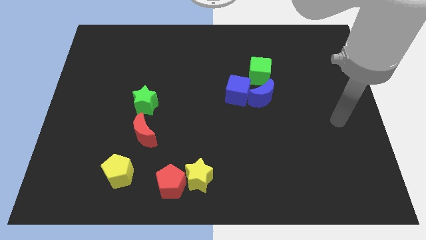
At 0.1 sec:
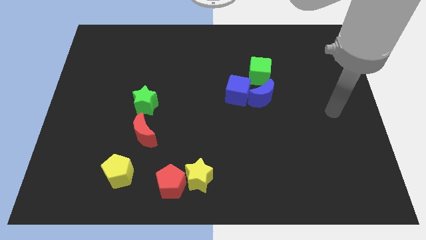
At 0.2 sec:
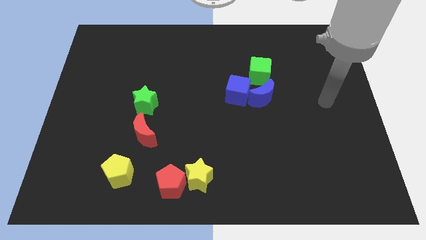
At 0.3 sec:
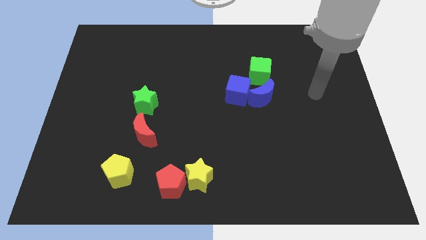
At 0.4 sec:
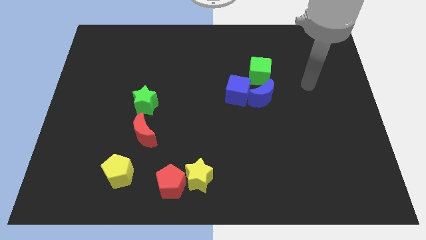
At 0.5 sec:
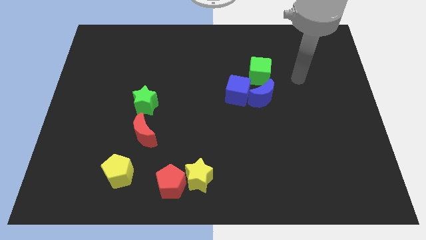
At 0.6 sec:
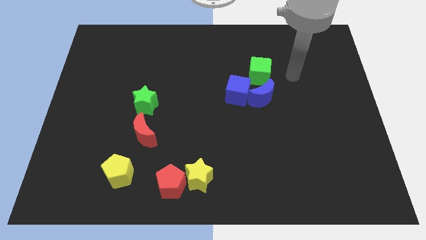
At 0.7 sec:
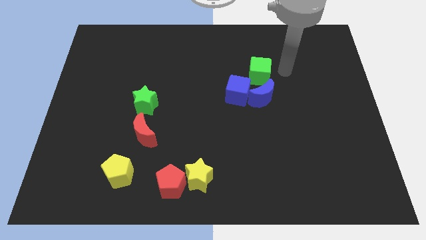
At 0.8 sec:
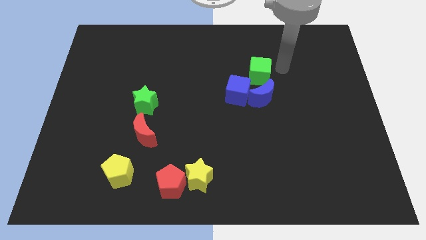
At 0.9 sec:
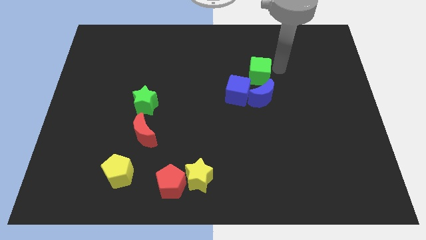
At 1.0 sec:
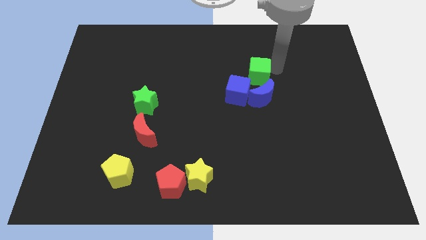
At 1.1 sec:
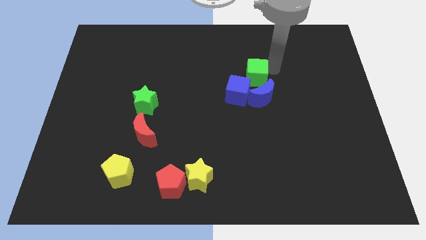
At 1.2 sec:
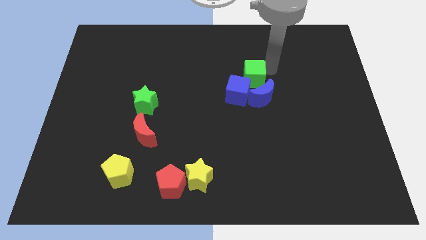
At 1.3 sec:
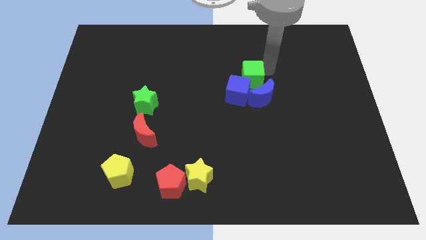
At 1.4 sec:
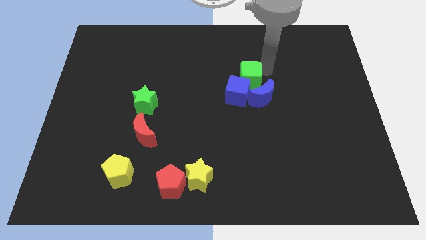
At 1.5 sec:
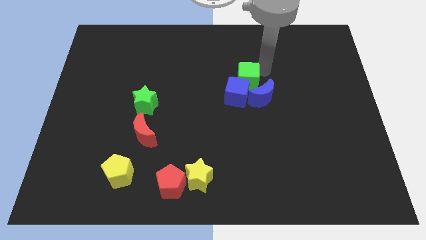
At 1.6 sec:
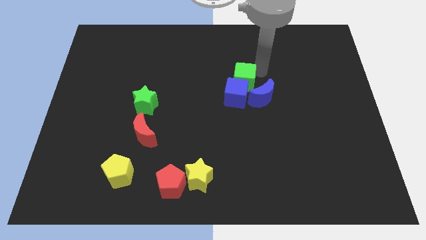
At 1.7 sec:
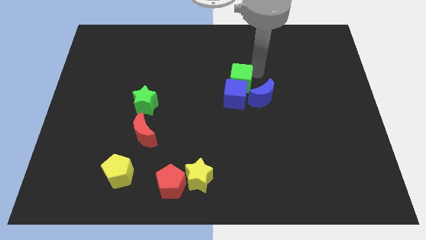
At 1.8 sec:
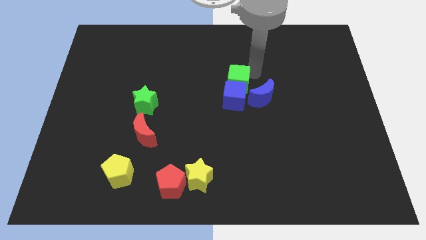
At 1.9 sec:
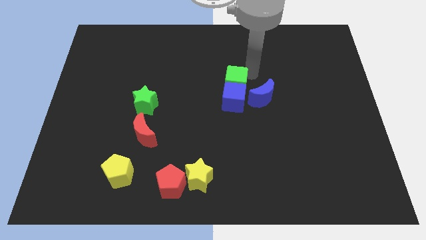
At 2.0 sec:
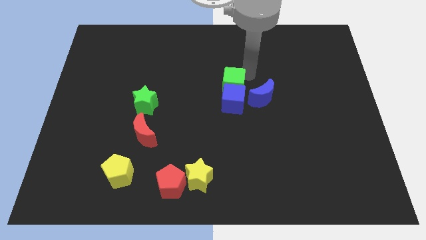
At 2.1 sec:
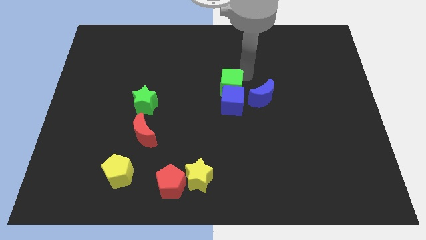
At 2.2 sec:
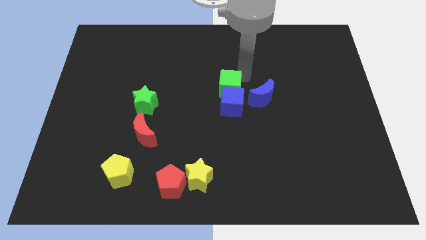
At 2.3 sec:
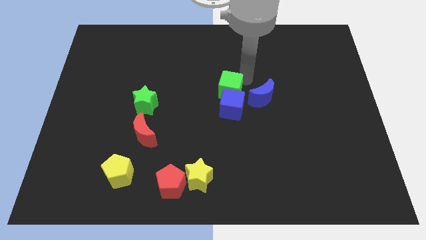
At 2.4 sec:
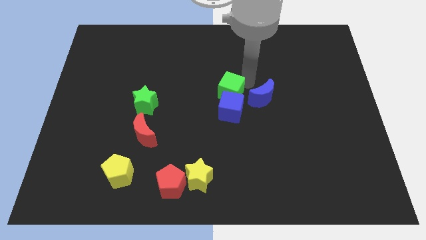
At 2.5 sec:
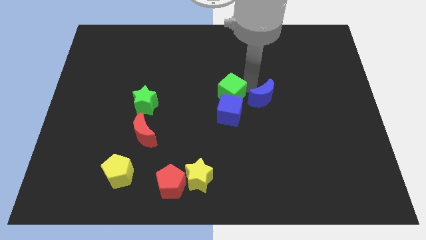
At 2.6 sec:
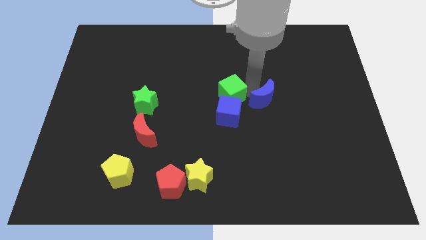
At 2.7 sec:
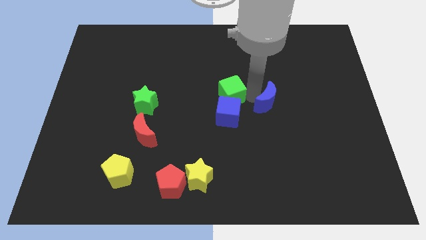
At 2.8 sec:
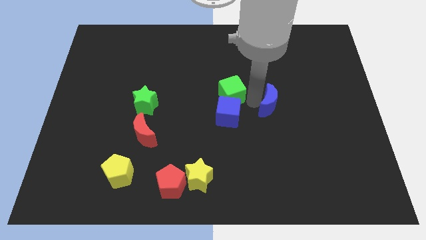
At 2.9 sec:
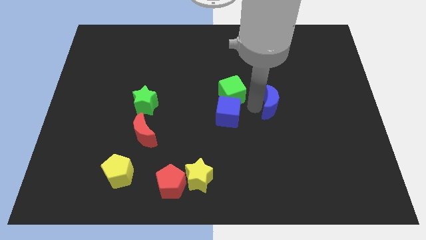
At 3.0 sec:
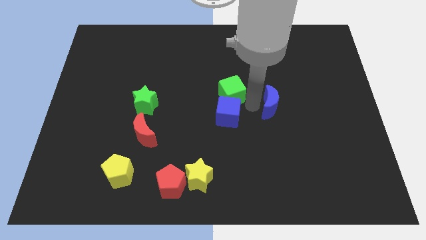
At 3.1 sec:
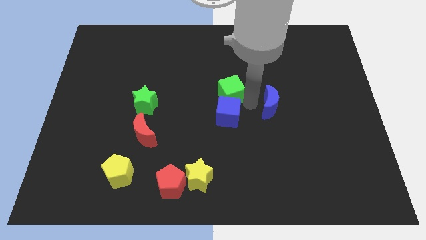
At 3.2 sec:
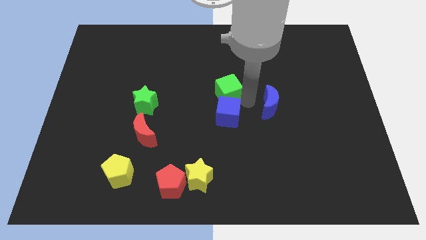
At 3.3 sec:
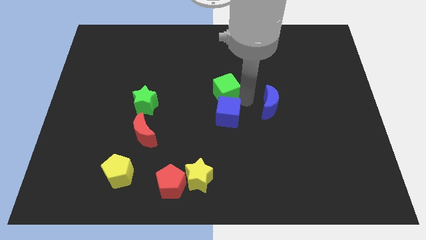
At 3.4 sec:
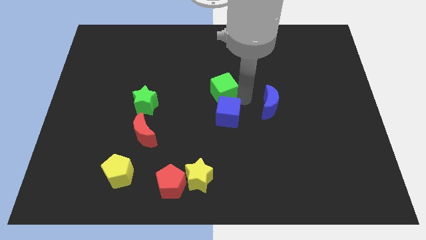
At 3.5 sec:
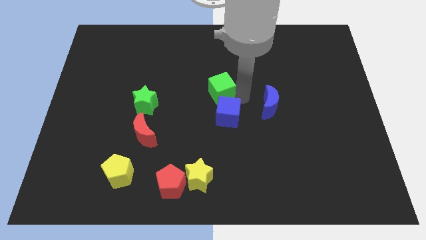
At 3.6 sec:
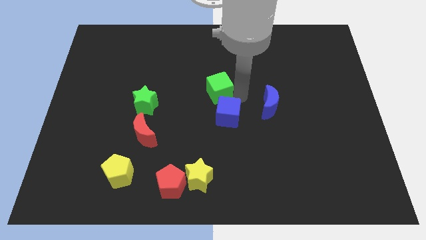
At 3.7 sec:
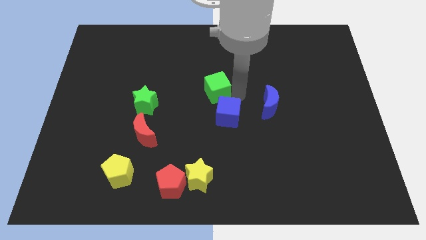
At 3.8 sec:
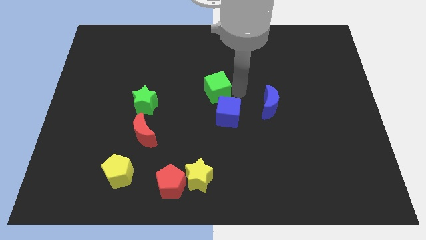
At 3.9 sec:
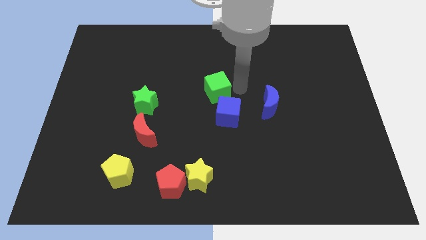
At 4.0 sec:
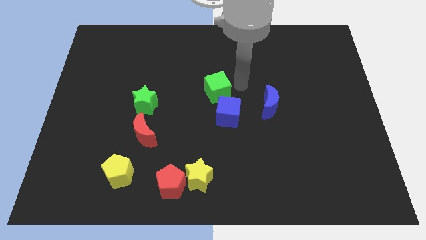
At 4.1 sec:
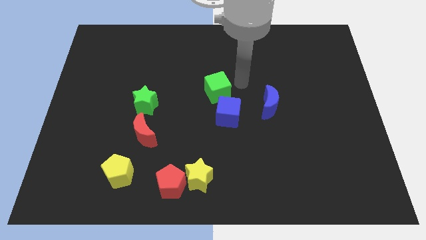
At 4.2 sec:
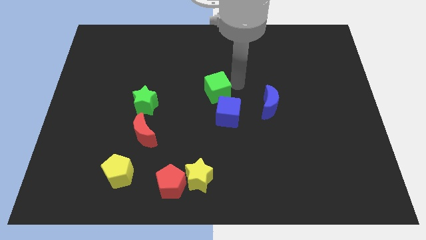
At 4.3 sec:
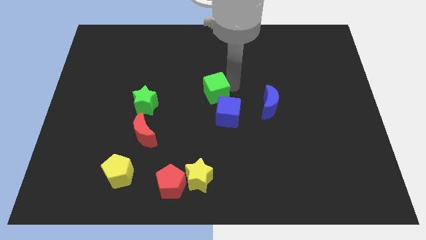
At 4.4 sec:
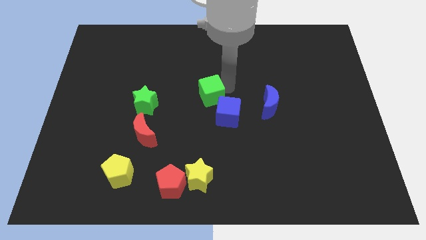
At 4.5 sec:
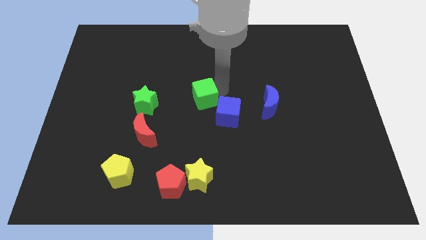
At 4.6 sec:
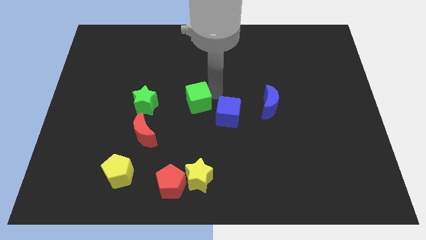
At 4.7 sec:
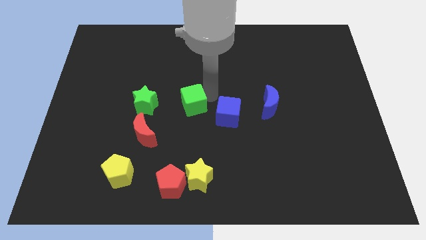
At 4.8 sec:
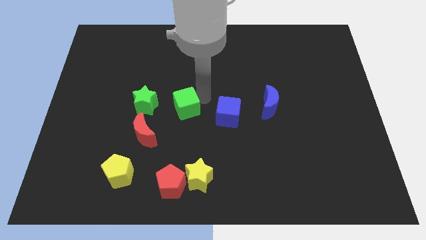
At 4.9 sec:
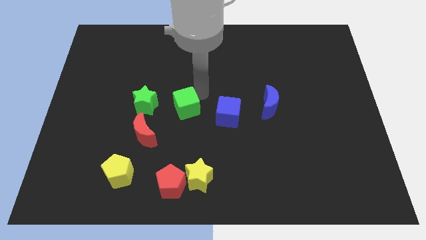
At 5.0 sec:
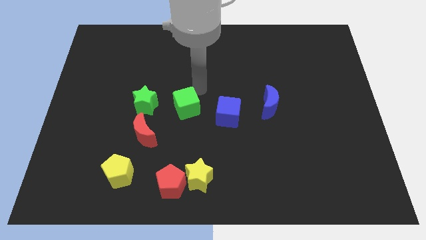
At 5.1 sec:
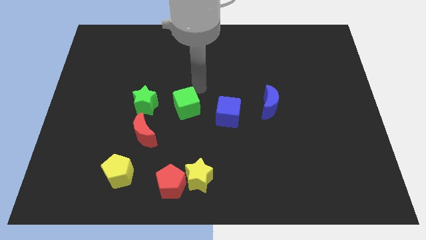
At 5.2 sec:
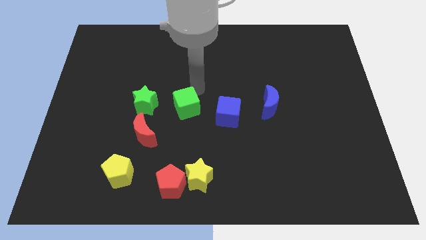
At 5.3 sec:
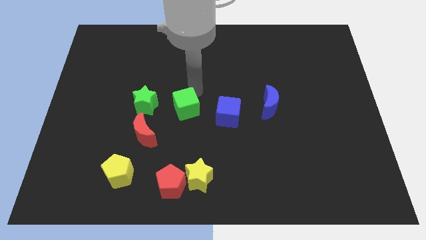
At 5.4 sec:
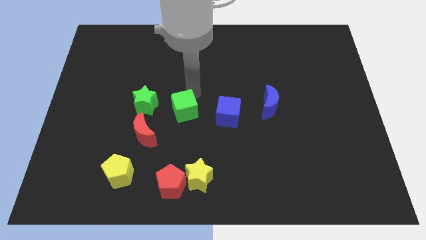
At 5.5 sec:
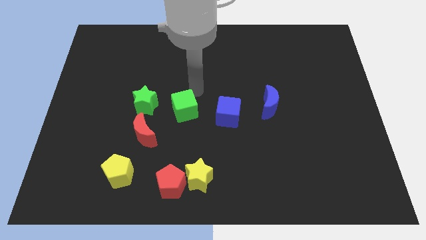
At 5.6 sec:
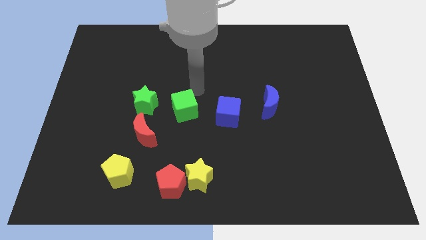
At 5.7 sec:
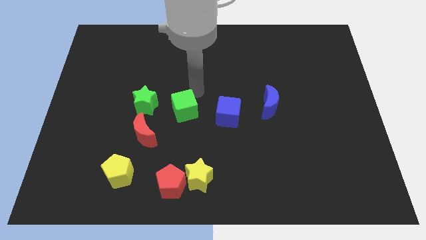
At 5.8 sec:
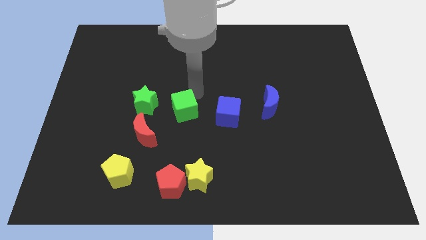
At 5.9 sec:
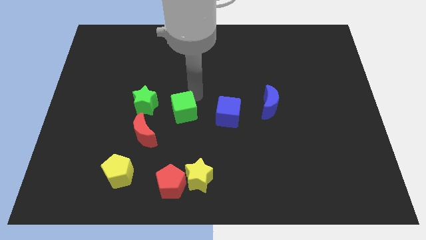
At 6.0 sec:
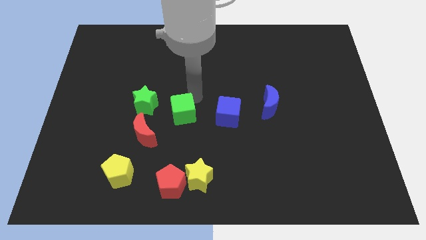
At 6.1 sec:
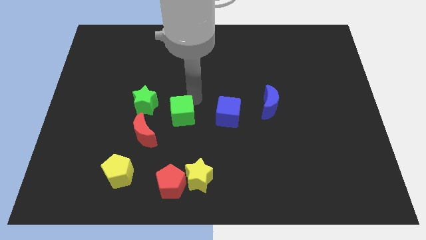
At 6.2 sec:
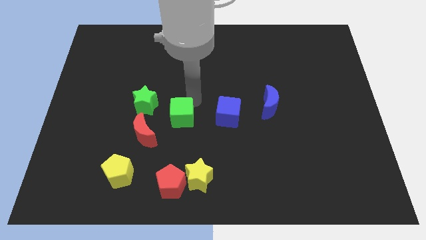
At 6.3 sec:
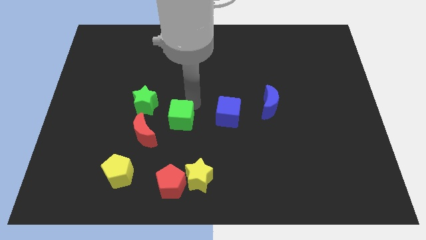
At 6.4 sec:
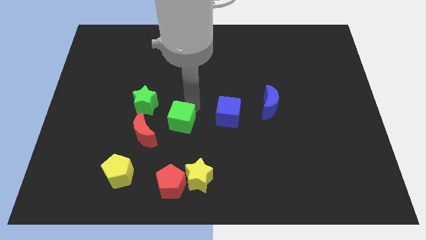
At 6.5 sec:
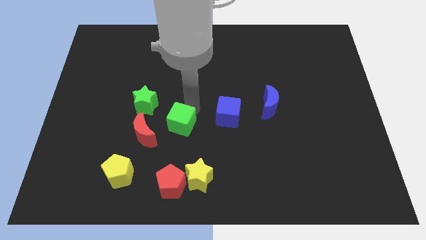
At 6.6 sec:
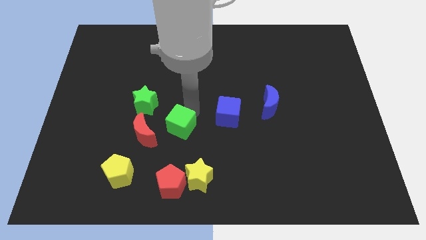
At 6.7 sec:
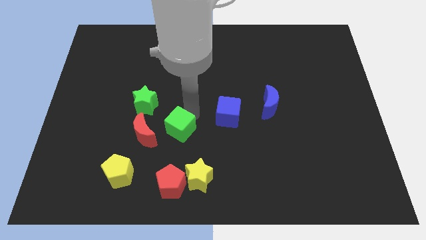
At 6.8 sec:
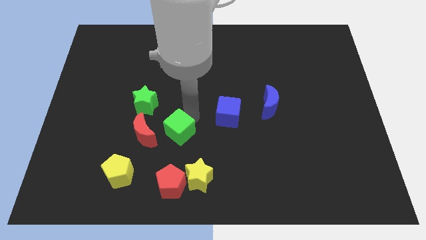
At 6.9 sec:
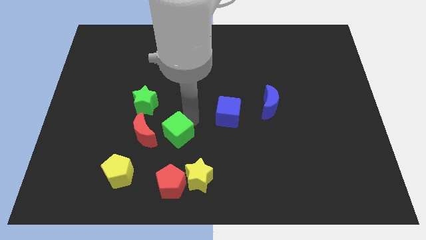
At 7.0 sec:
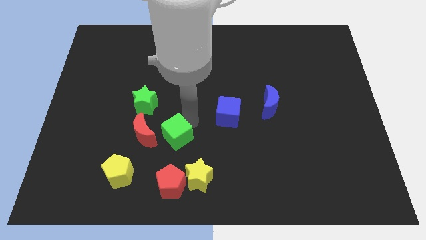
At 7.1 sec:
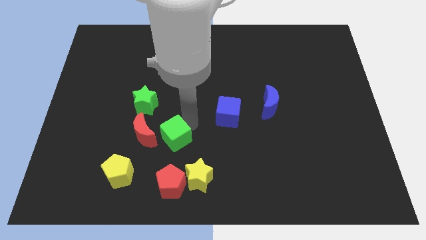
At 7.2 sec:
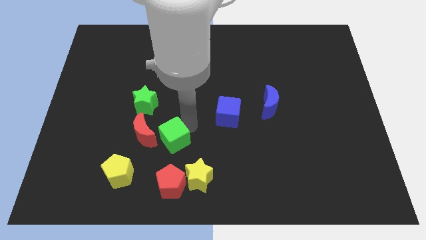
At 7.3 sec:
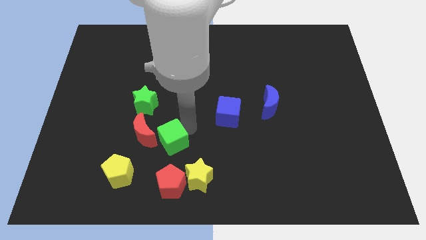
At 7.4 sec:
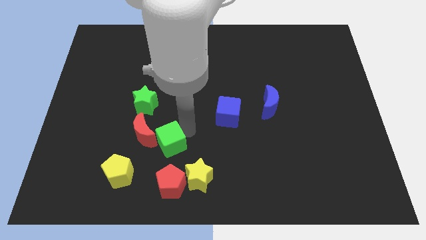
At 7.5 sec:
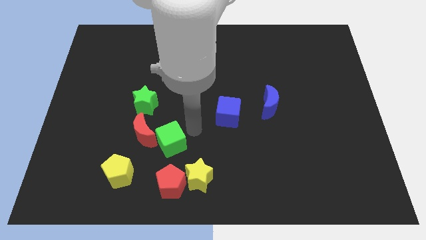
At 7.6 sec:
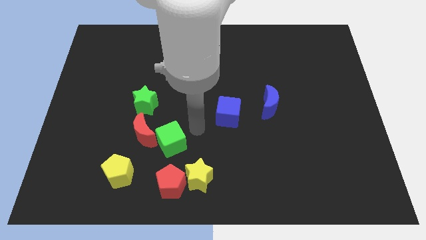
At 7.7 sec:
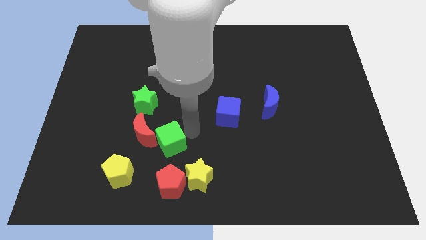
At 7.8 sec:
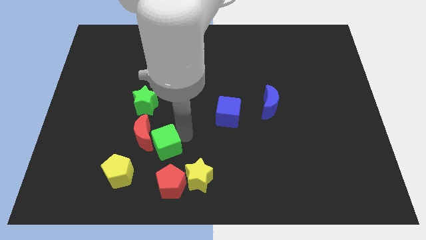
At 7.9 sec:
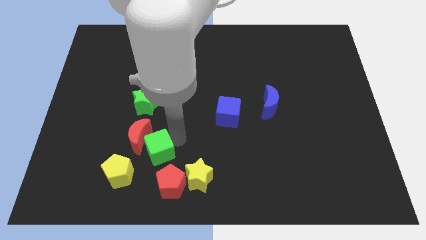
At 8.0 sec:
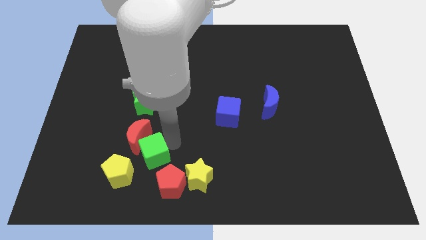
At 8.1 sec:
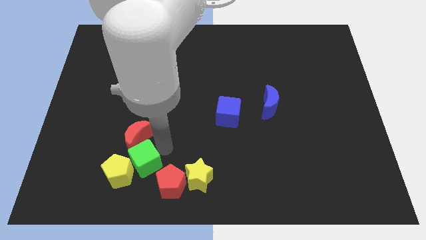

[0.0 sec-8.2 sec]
put the green cube towards the yellow pentagon

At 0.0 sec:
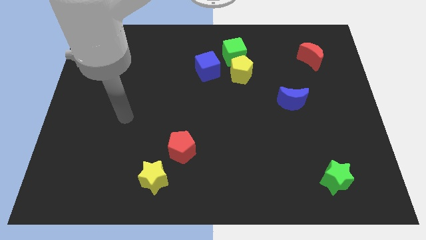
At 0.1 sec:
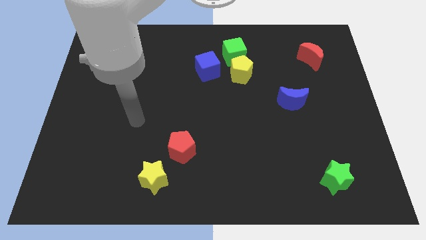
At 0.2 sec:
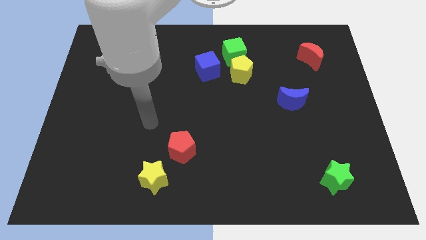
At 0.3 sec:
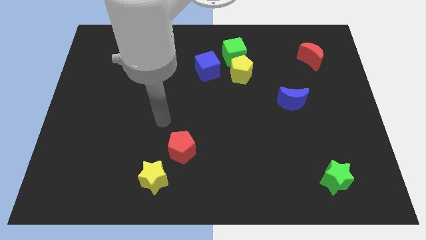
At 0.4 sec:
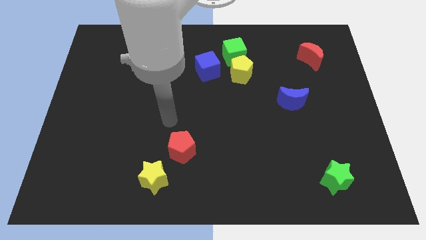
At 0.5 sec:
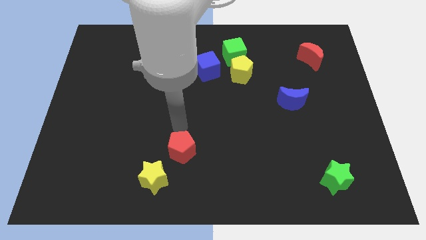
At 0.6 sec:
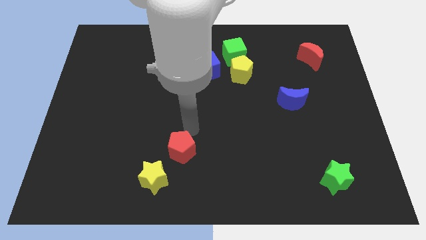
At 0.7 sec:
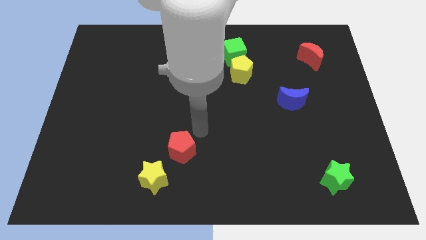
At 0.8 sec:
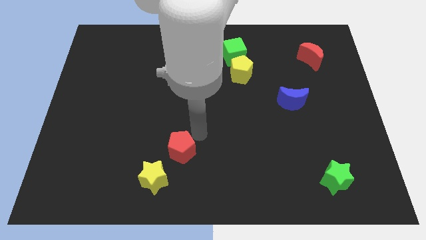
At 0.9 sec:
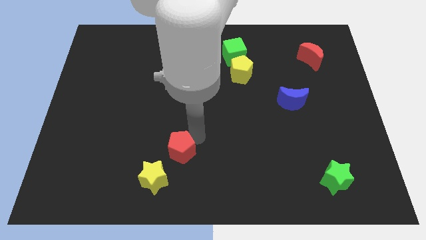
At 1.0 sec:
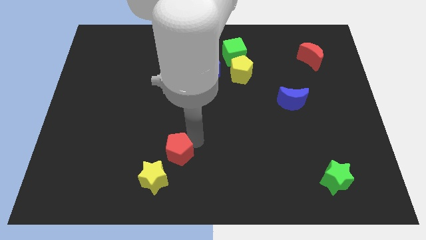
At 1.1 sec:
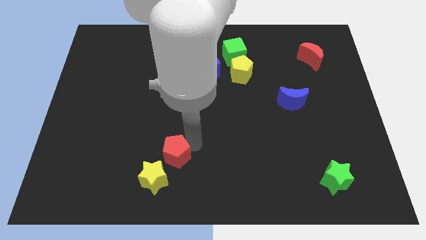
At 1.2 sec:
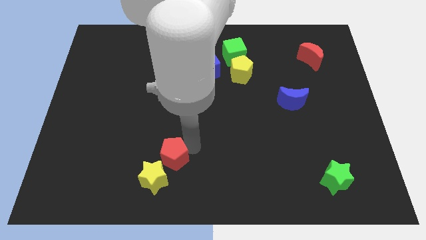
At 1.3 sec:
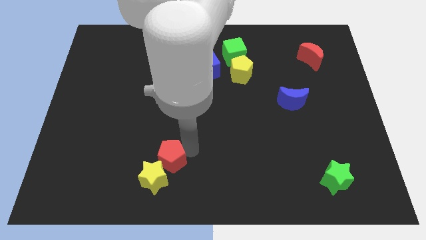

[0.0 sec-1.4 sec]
move the red pentagon towards the yellow star
